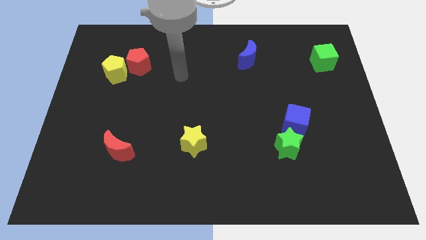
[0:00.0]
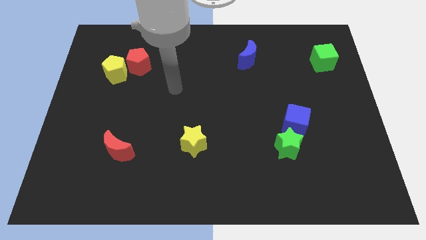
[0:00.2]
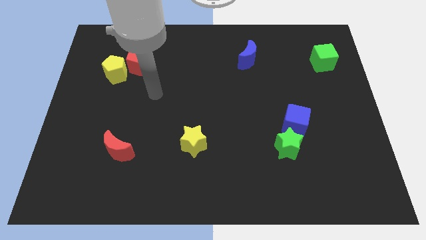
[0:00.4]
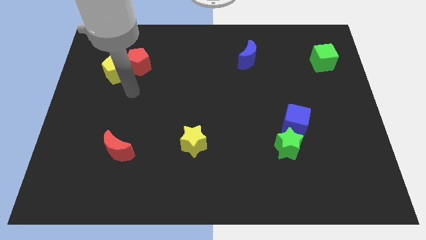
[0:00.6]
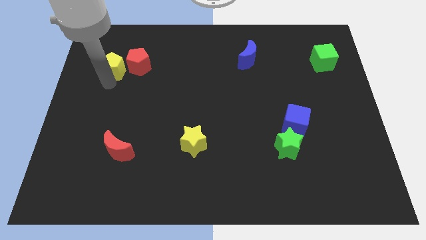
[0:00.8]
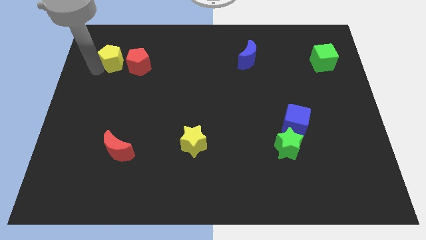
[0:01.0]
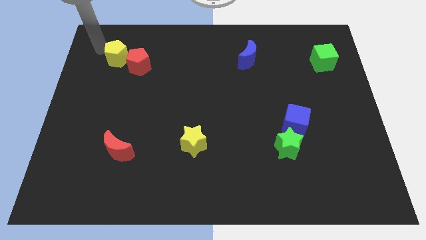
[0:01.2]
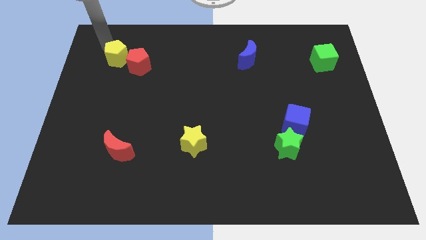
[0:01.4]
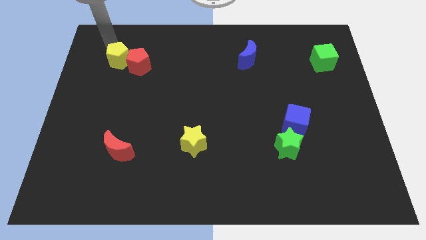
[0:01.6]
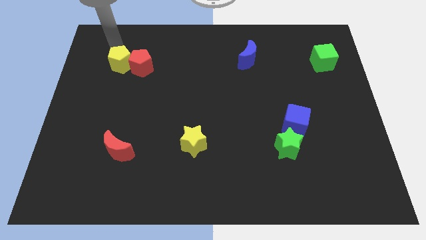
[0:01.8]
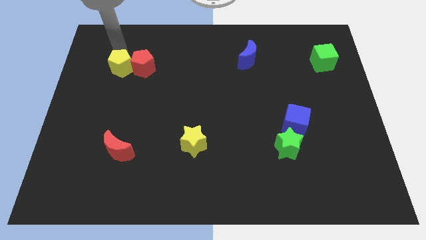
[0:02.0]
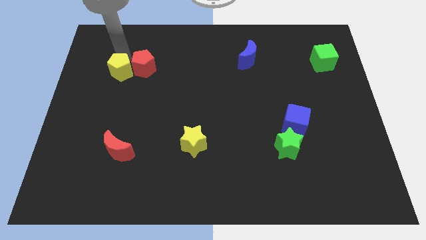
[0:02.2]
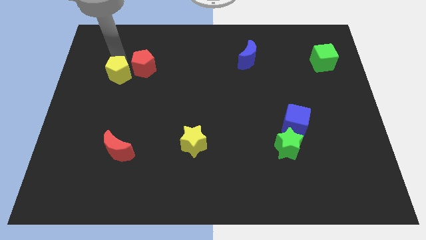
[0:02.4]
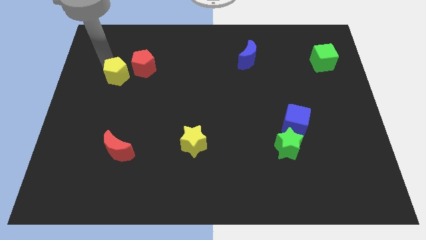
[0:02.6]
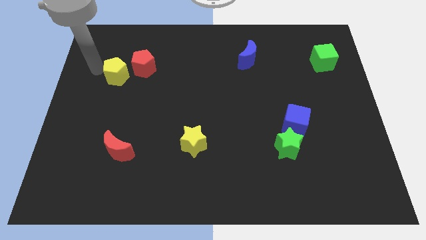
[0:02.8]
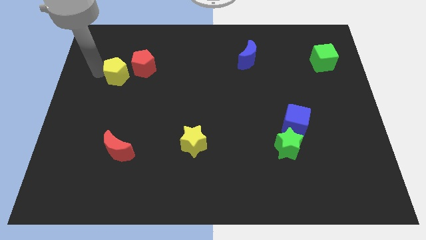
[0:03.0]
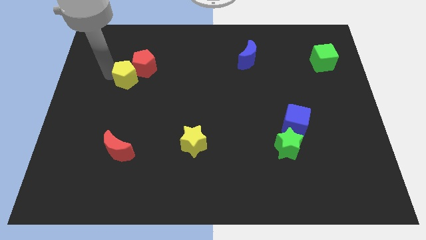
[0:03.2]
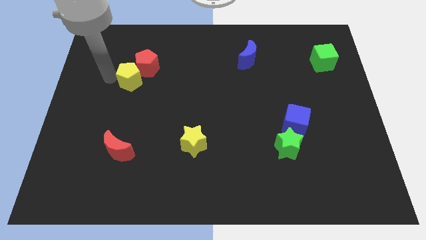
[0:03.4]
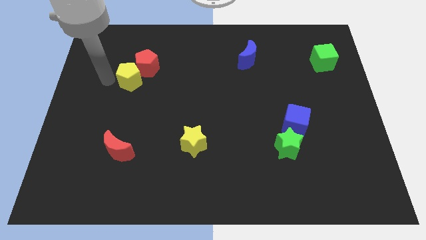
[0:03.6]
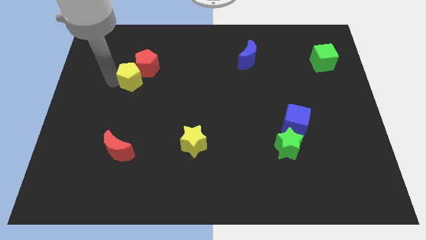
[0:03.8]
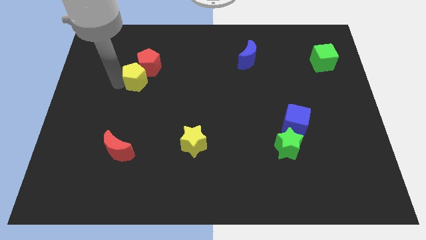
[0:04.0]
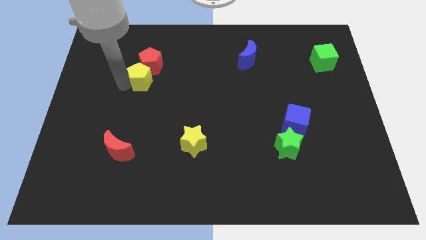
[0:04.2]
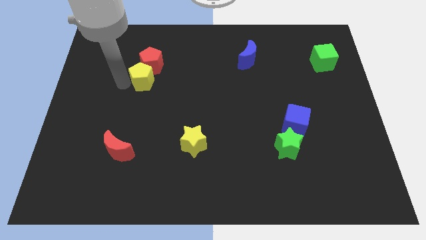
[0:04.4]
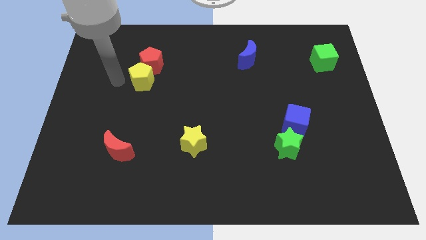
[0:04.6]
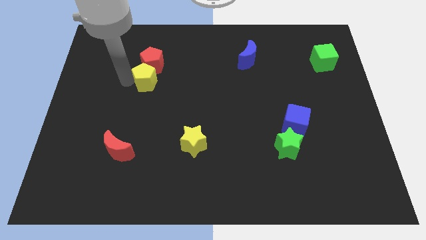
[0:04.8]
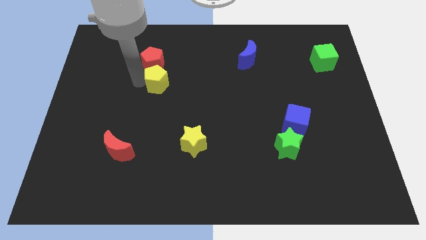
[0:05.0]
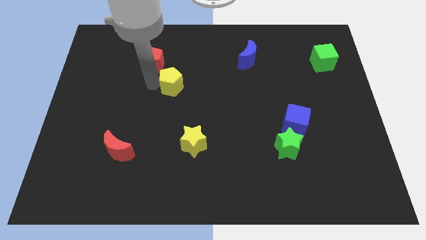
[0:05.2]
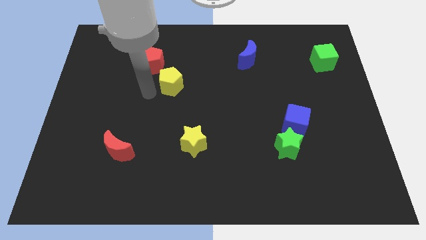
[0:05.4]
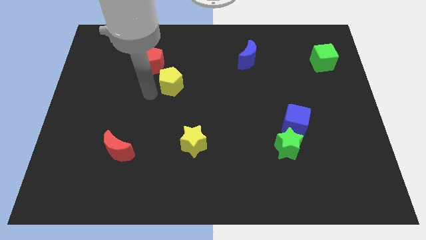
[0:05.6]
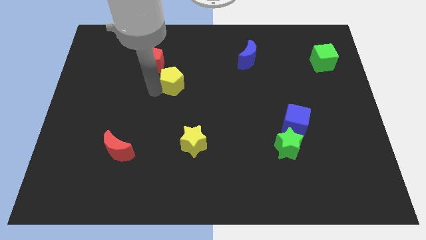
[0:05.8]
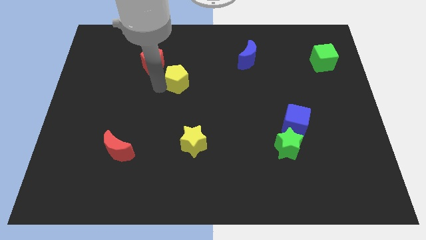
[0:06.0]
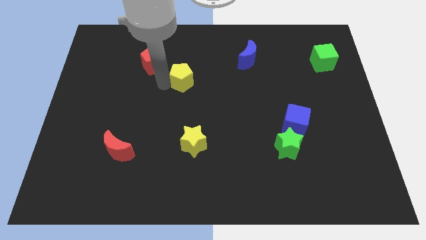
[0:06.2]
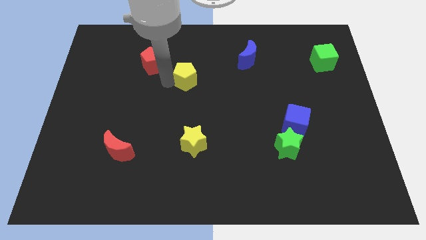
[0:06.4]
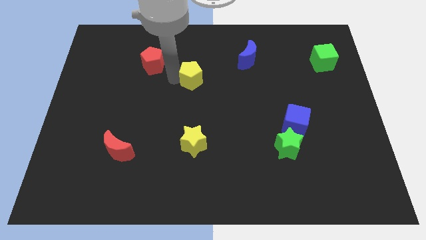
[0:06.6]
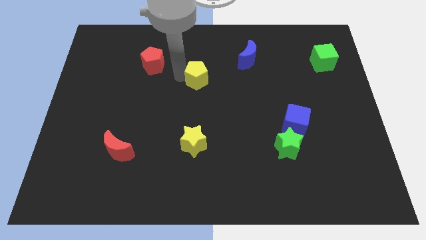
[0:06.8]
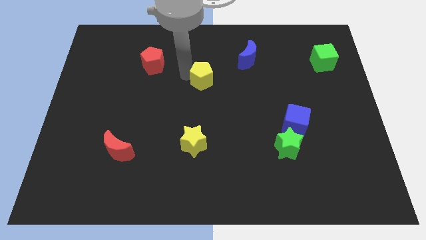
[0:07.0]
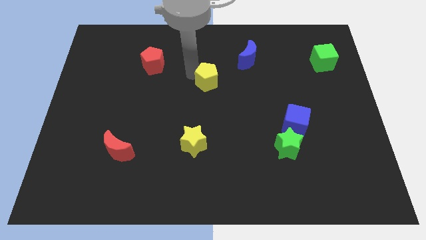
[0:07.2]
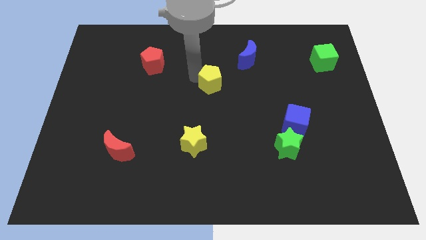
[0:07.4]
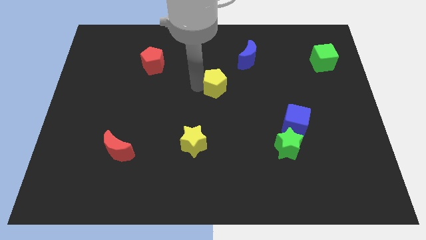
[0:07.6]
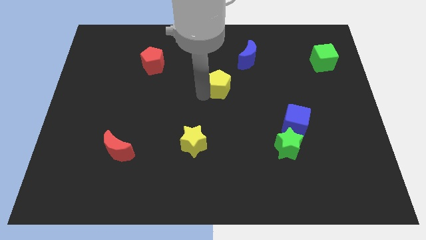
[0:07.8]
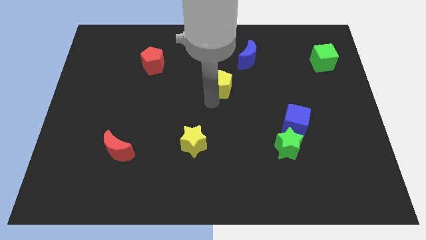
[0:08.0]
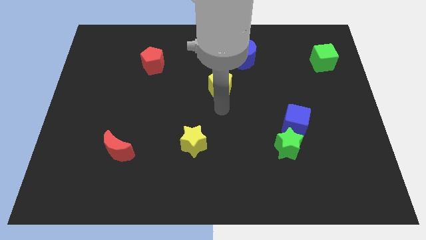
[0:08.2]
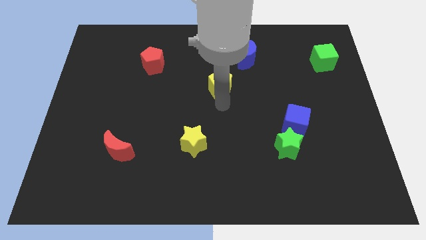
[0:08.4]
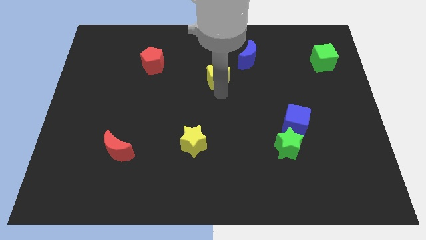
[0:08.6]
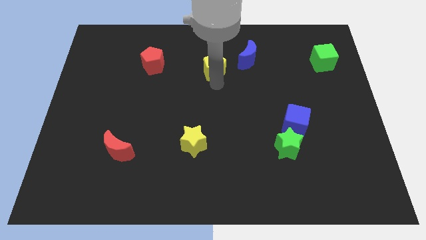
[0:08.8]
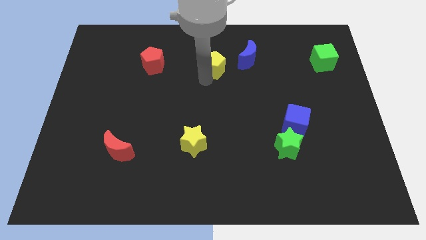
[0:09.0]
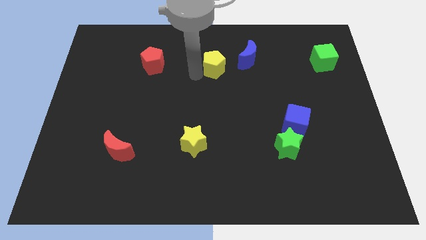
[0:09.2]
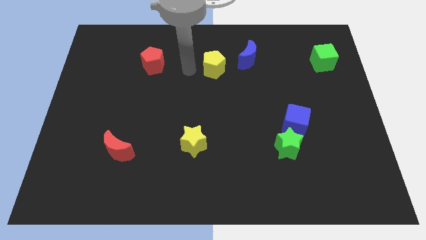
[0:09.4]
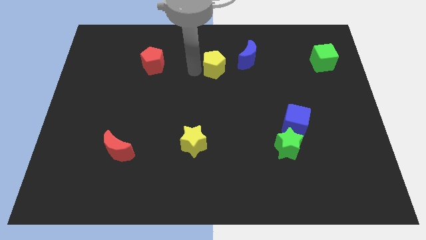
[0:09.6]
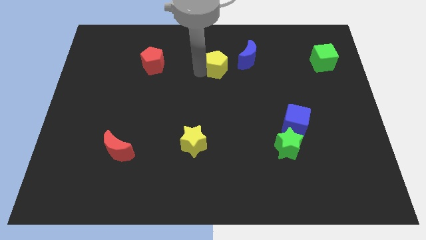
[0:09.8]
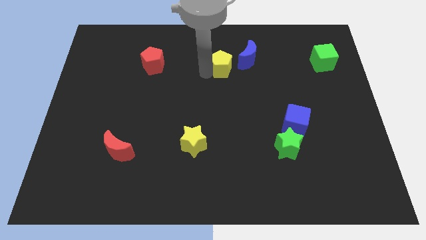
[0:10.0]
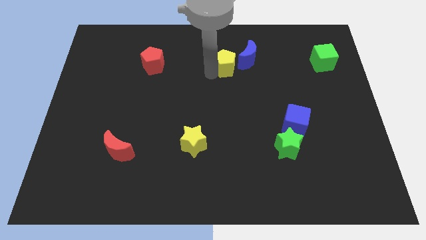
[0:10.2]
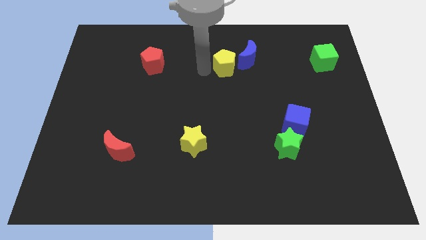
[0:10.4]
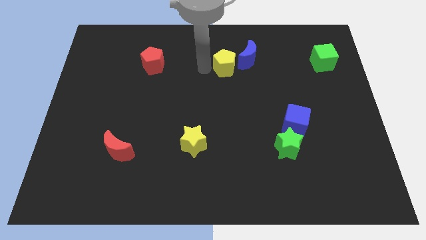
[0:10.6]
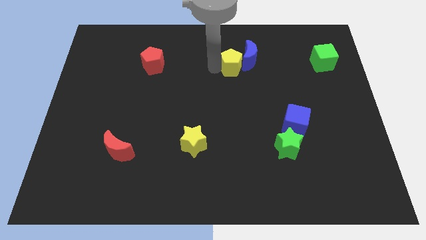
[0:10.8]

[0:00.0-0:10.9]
push the yellow pentagon towards the blue moon

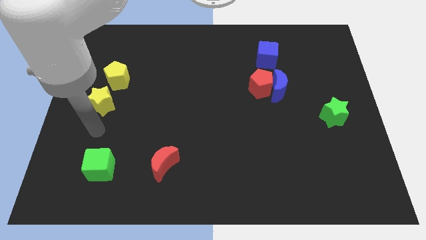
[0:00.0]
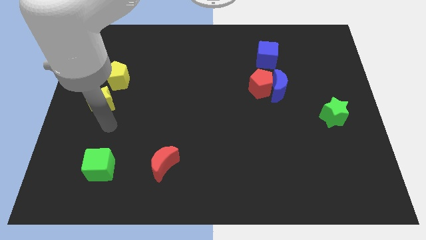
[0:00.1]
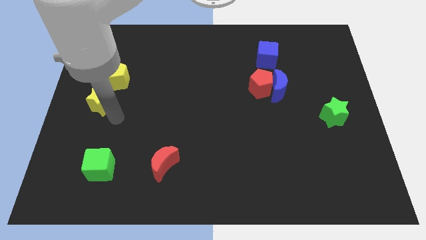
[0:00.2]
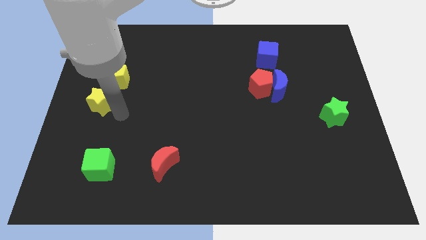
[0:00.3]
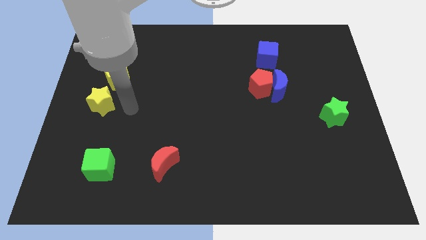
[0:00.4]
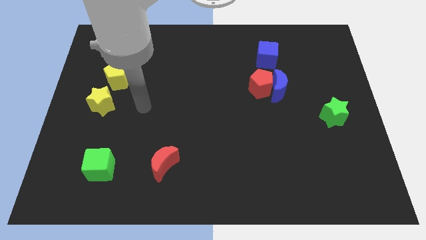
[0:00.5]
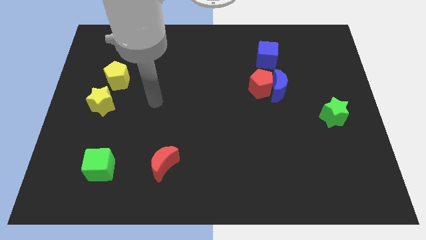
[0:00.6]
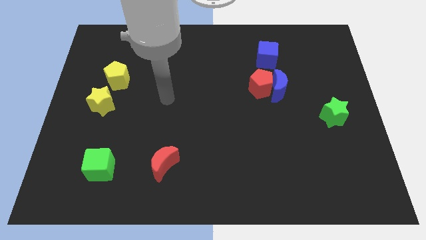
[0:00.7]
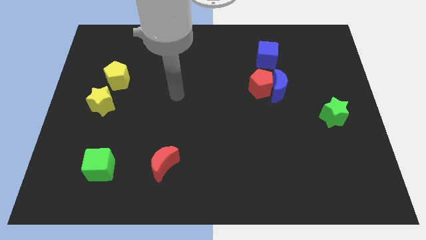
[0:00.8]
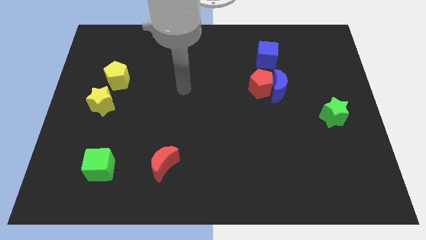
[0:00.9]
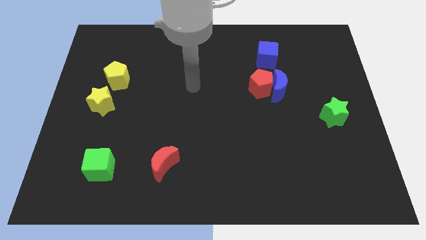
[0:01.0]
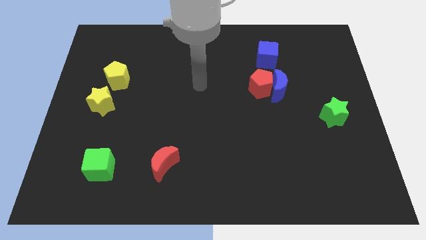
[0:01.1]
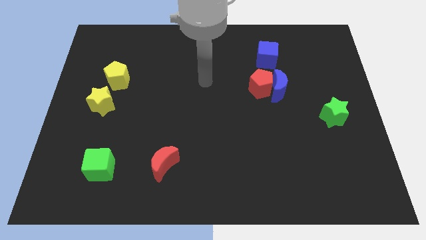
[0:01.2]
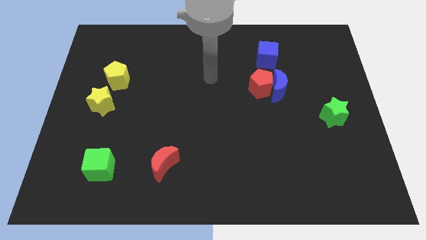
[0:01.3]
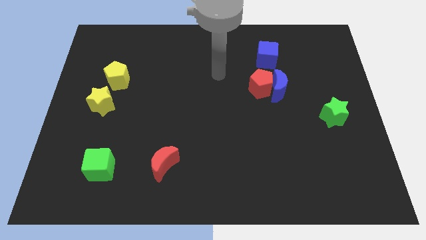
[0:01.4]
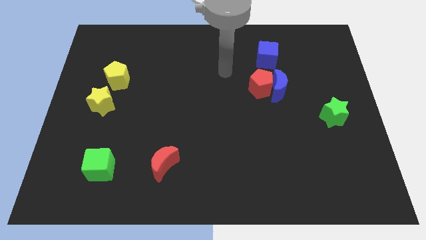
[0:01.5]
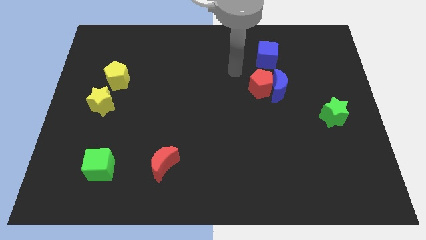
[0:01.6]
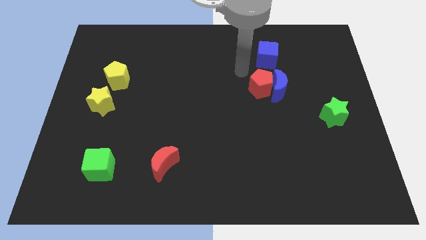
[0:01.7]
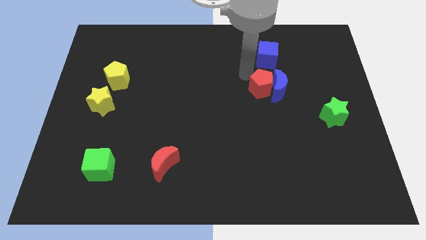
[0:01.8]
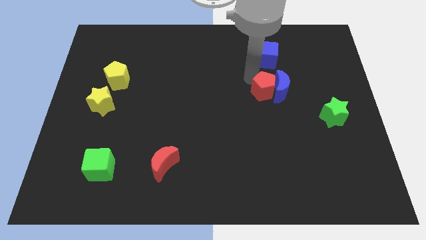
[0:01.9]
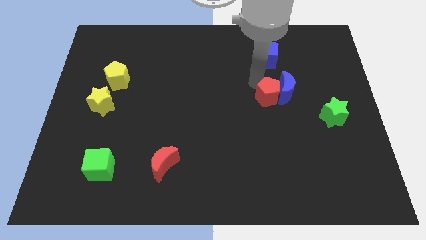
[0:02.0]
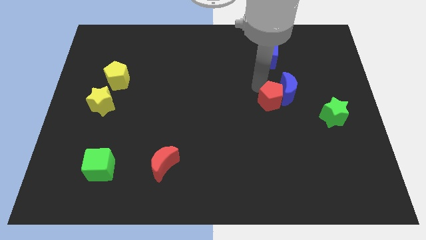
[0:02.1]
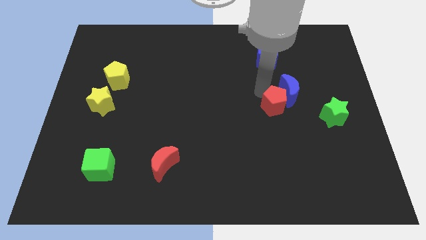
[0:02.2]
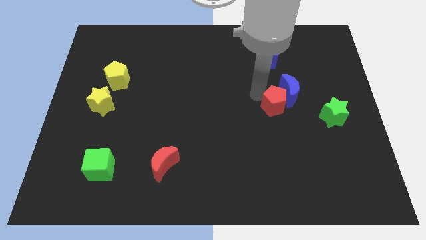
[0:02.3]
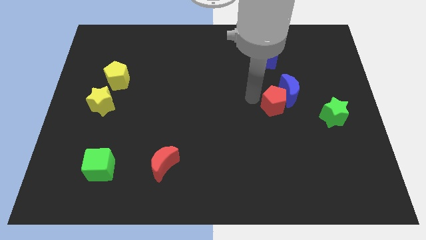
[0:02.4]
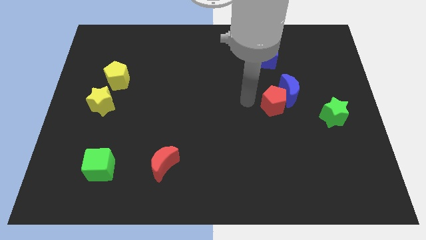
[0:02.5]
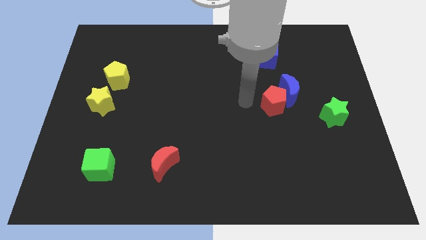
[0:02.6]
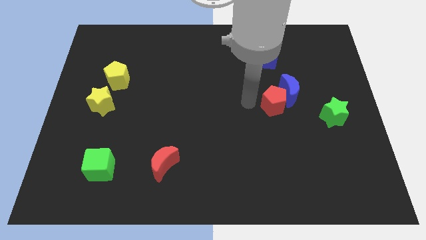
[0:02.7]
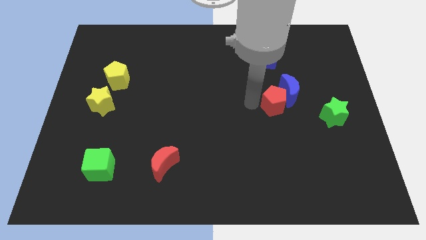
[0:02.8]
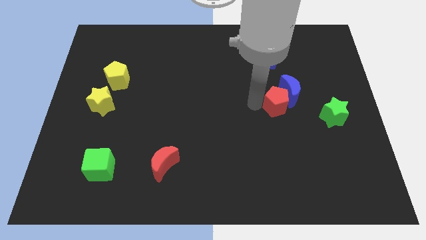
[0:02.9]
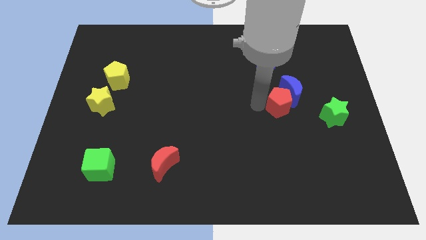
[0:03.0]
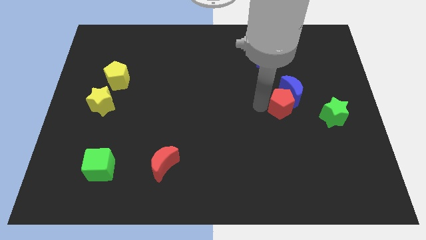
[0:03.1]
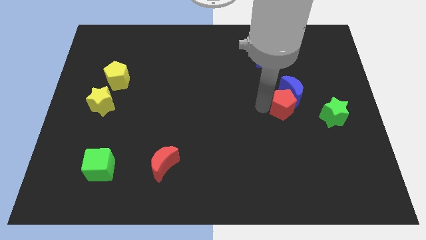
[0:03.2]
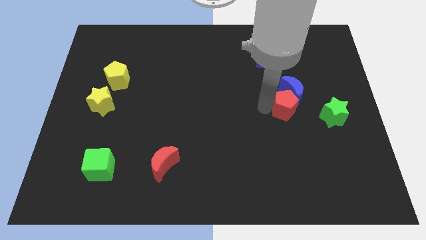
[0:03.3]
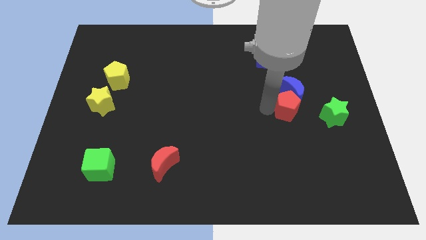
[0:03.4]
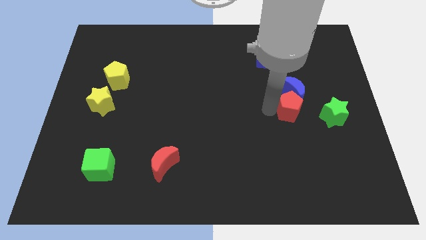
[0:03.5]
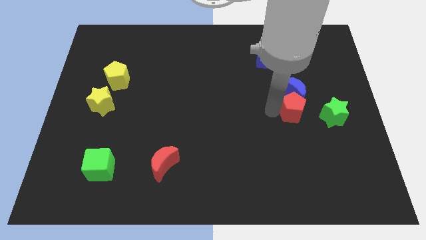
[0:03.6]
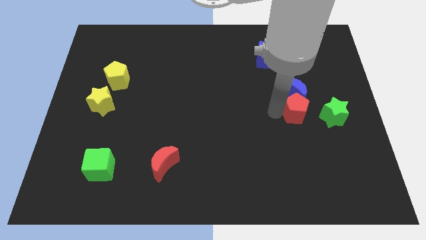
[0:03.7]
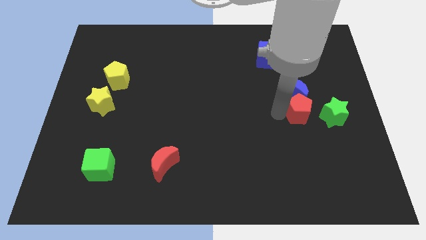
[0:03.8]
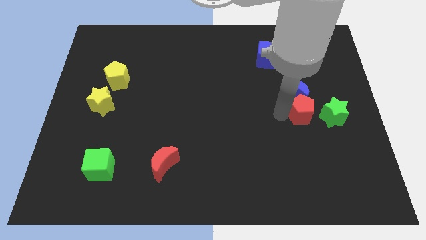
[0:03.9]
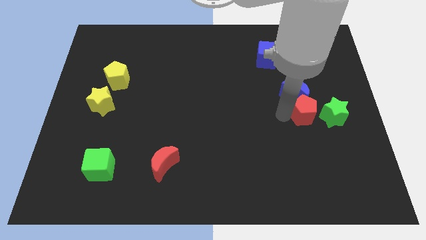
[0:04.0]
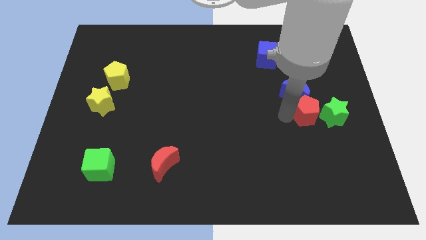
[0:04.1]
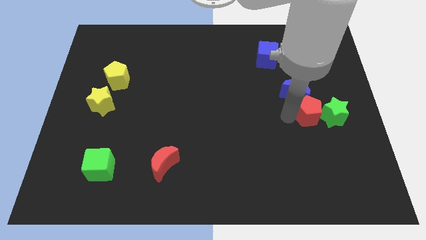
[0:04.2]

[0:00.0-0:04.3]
move the red pentagon to the green star
